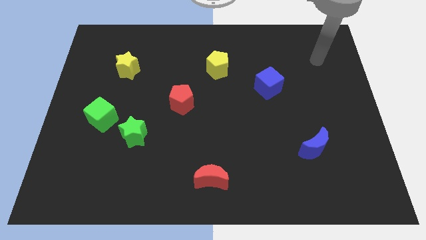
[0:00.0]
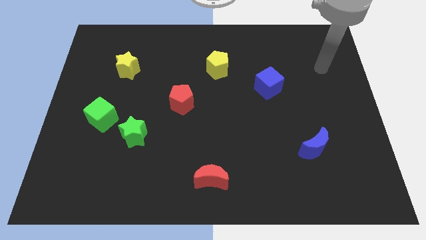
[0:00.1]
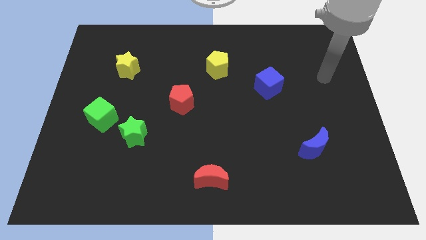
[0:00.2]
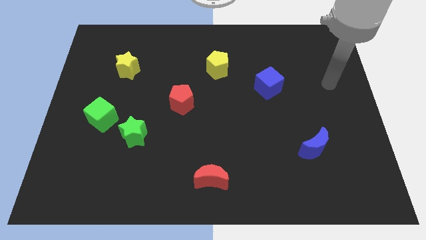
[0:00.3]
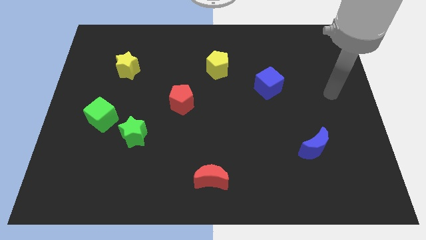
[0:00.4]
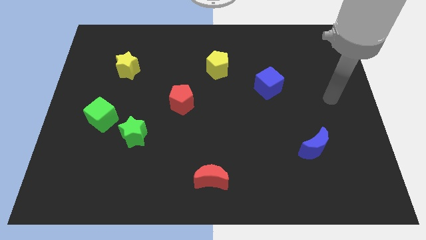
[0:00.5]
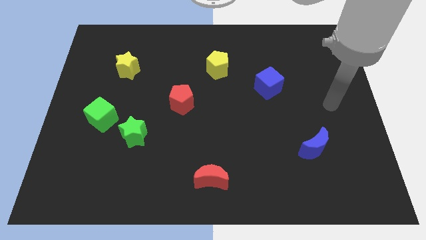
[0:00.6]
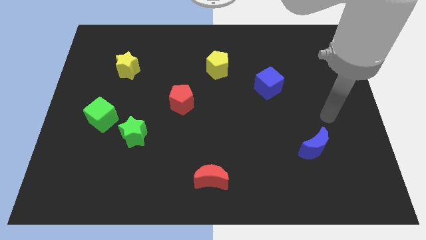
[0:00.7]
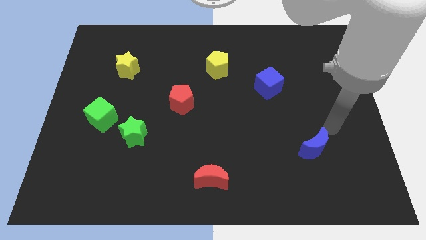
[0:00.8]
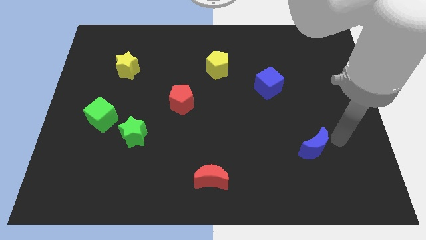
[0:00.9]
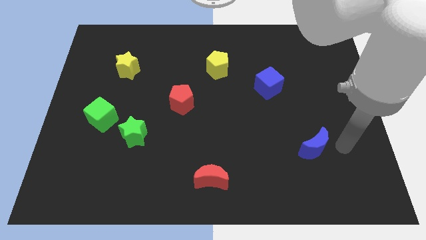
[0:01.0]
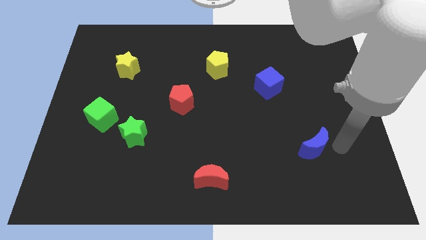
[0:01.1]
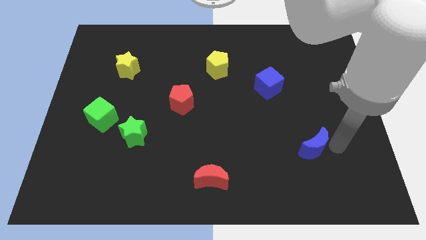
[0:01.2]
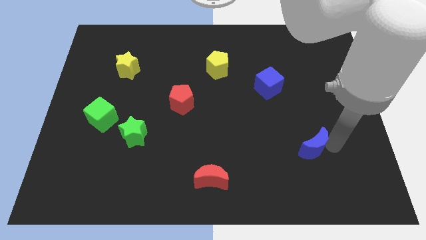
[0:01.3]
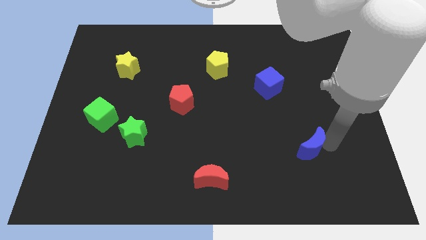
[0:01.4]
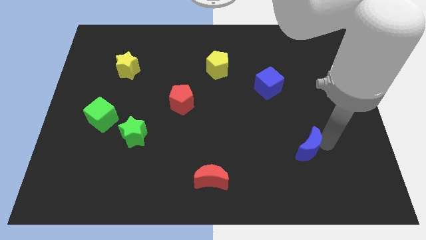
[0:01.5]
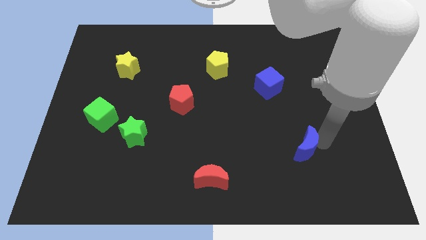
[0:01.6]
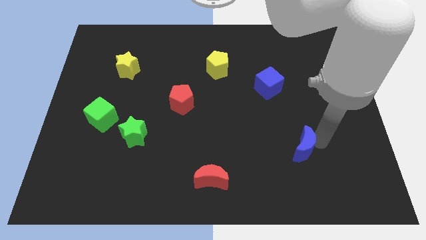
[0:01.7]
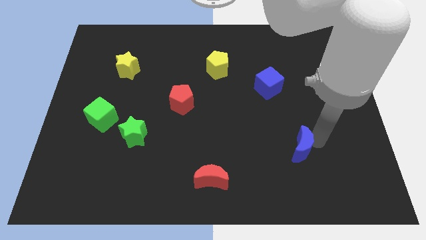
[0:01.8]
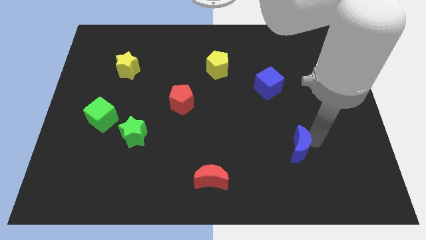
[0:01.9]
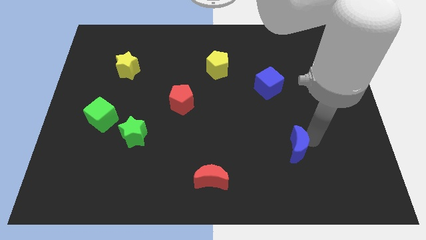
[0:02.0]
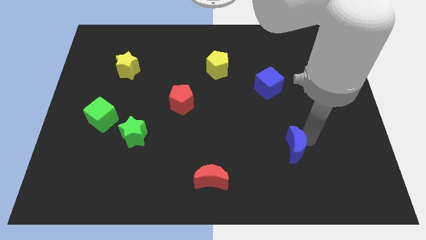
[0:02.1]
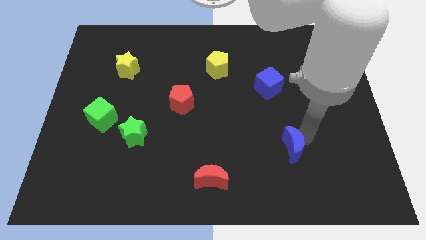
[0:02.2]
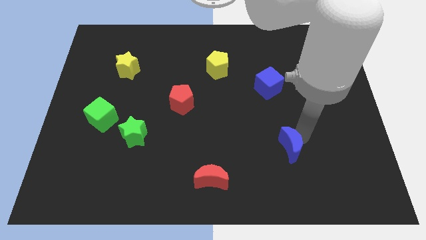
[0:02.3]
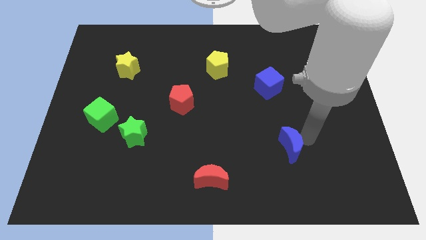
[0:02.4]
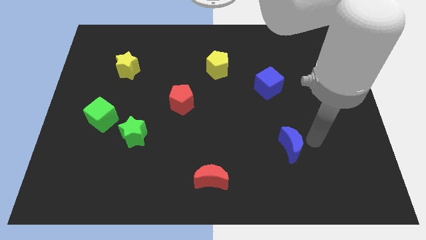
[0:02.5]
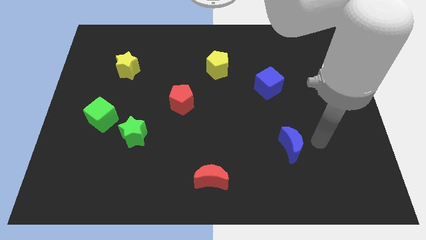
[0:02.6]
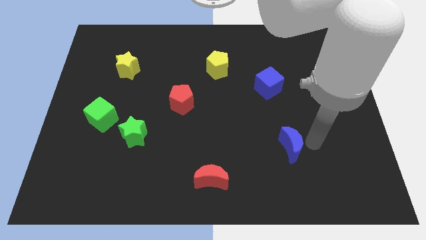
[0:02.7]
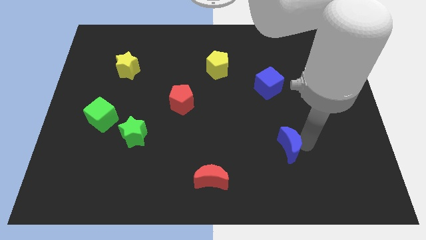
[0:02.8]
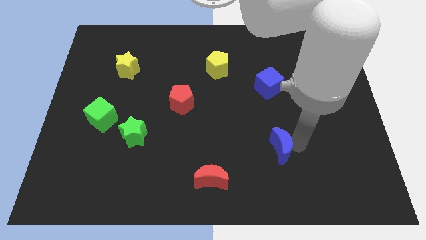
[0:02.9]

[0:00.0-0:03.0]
push the blue moon slightly left

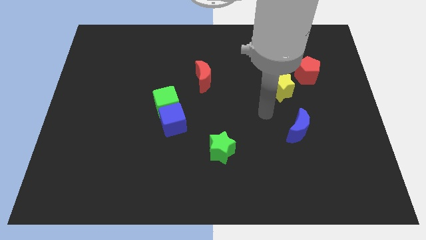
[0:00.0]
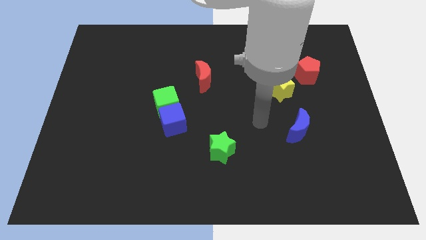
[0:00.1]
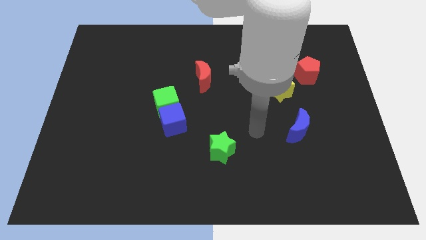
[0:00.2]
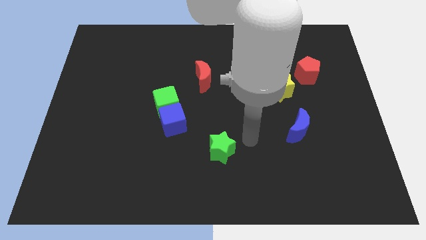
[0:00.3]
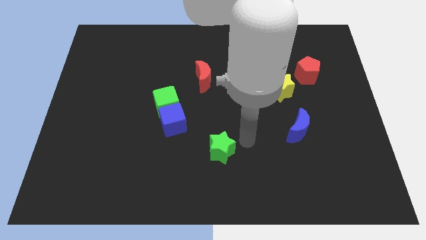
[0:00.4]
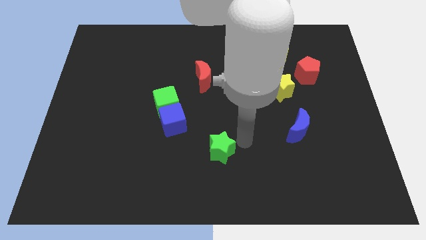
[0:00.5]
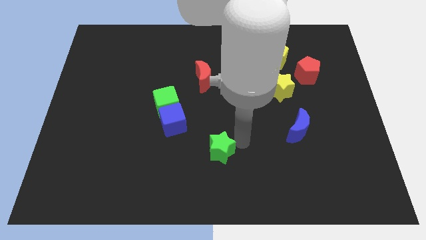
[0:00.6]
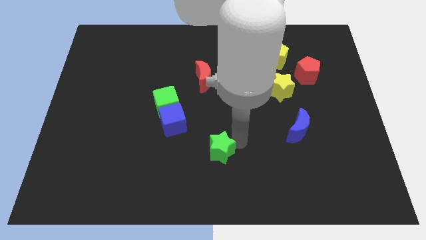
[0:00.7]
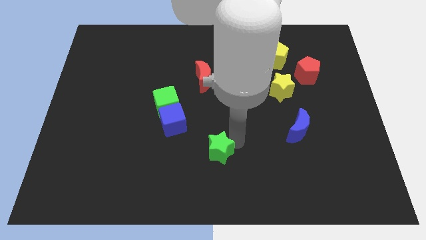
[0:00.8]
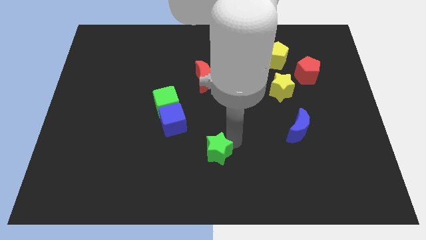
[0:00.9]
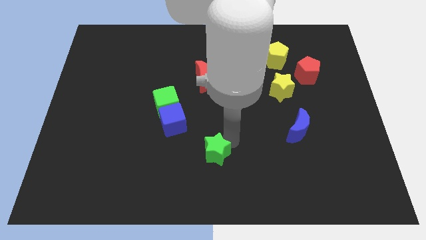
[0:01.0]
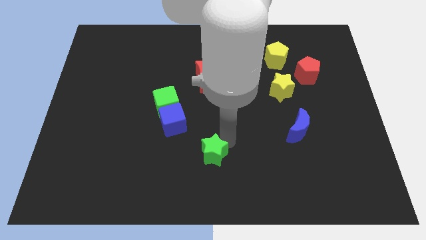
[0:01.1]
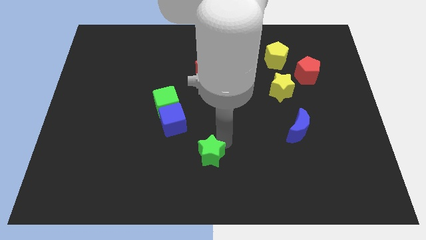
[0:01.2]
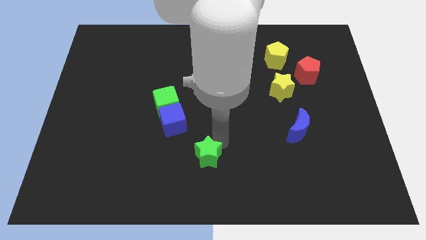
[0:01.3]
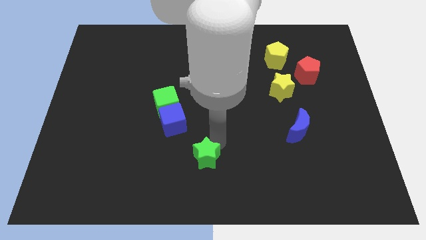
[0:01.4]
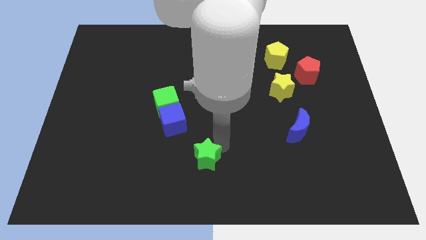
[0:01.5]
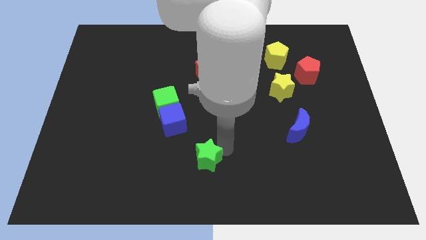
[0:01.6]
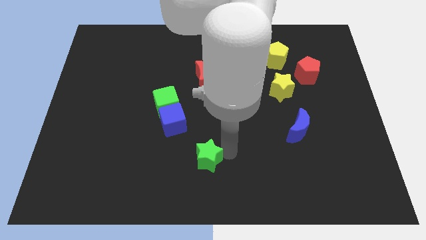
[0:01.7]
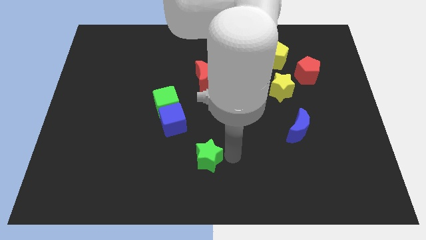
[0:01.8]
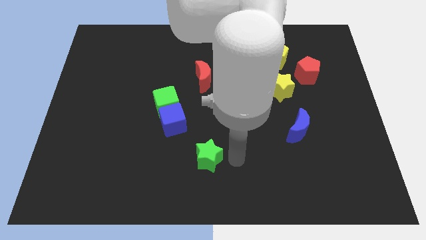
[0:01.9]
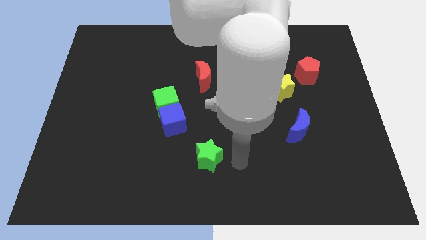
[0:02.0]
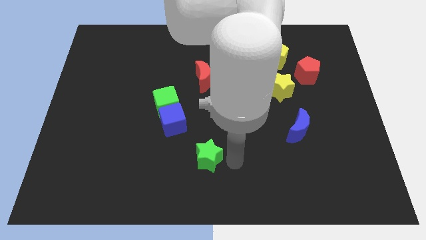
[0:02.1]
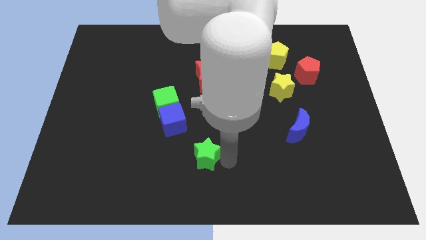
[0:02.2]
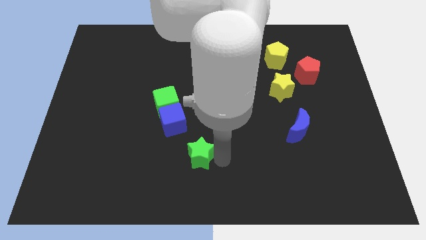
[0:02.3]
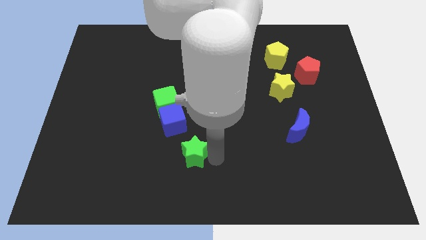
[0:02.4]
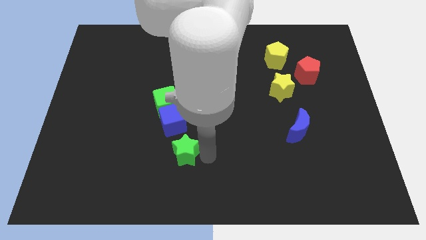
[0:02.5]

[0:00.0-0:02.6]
slightly slide the green star to the left

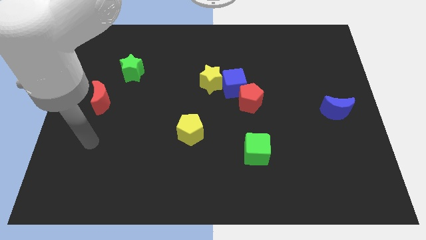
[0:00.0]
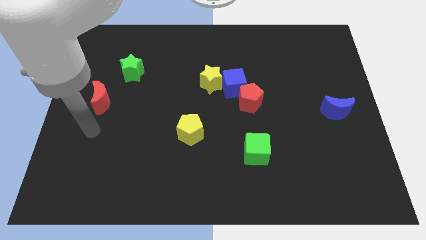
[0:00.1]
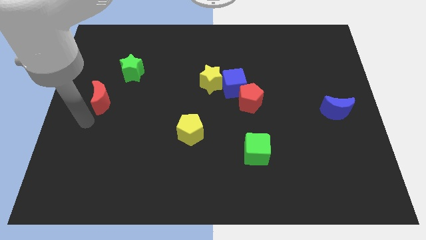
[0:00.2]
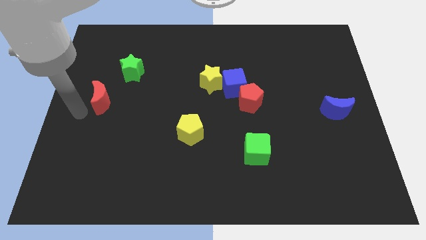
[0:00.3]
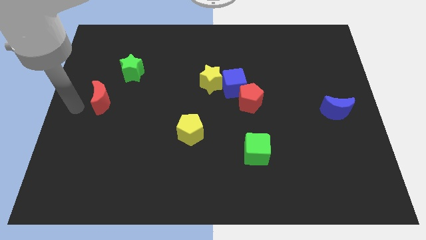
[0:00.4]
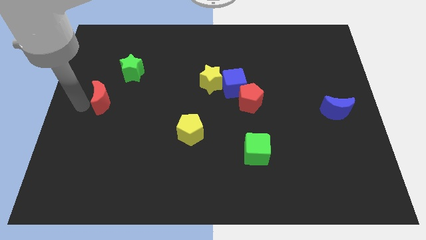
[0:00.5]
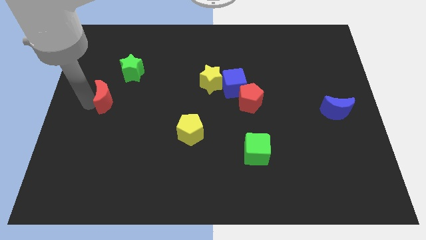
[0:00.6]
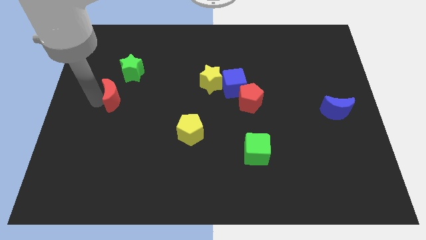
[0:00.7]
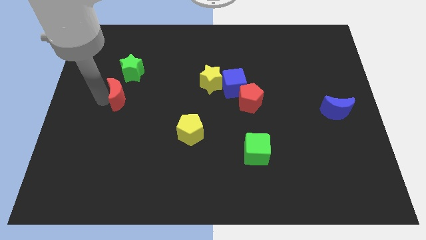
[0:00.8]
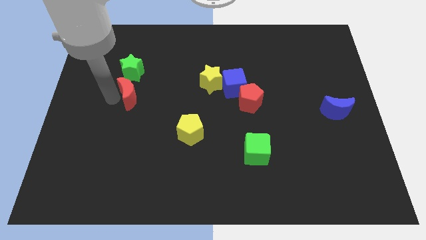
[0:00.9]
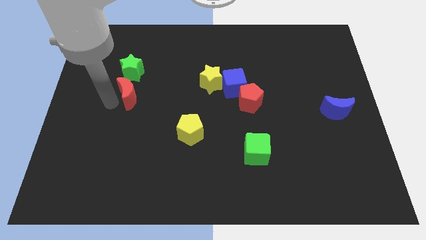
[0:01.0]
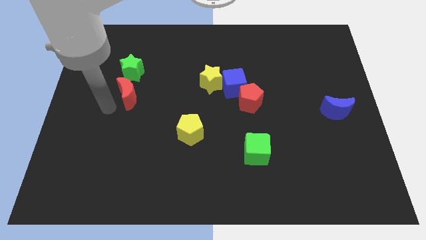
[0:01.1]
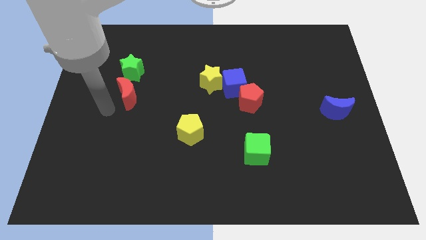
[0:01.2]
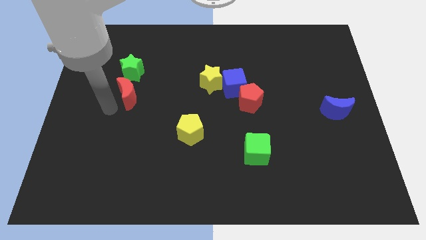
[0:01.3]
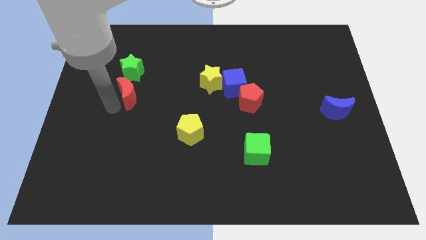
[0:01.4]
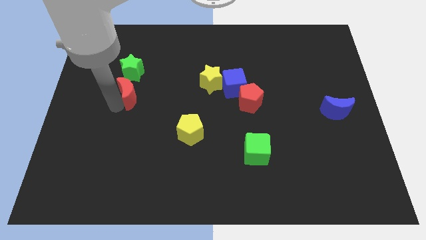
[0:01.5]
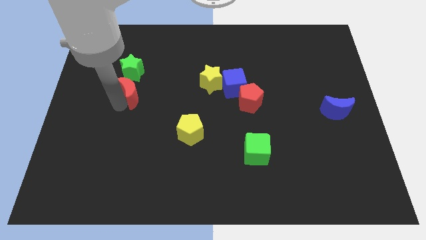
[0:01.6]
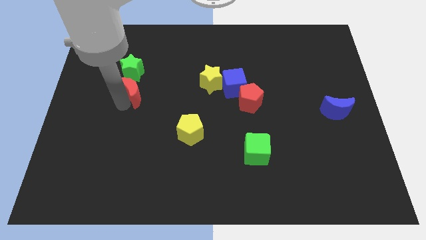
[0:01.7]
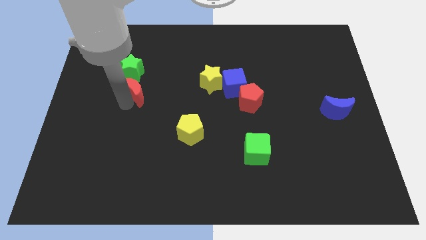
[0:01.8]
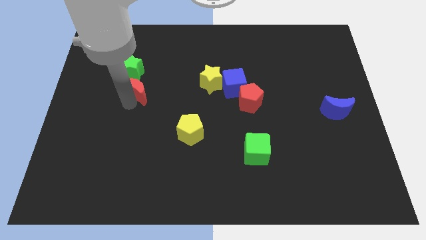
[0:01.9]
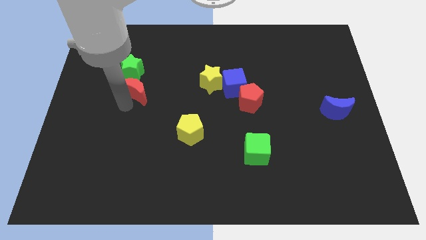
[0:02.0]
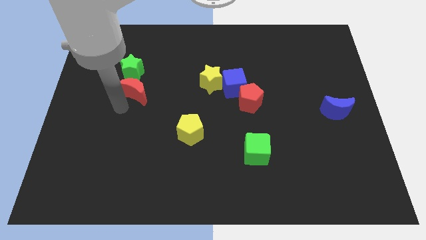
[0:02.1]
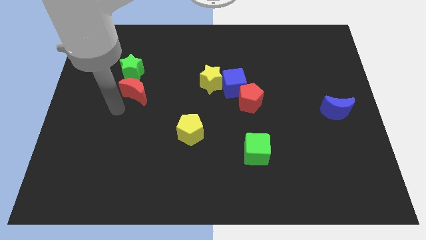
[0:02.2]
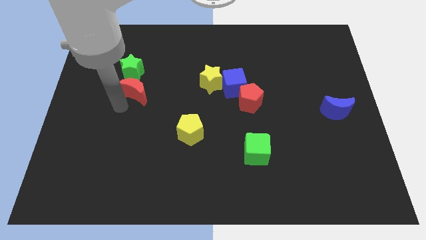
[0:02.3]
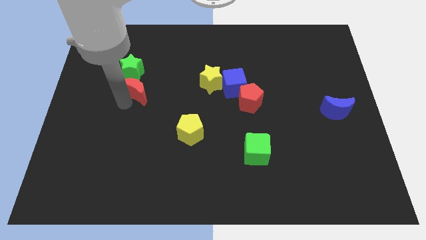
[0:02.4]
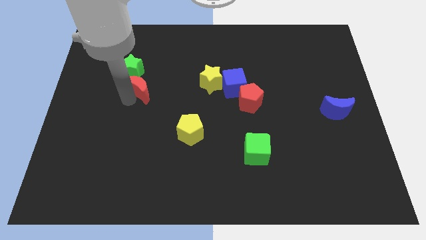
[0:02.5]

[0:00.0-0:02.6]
slightly push the red moon diagonally upwards and to the right
